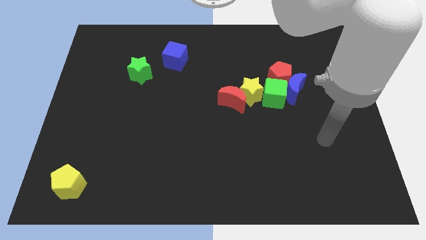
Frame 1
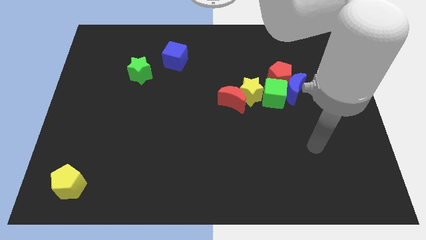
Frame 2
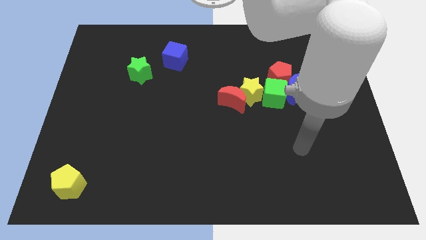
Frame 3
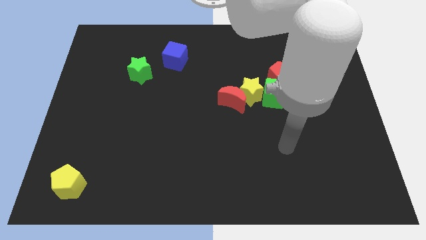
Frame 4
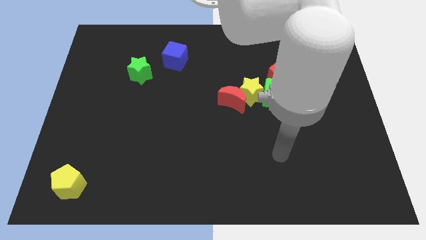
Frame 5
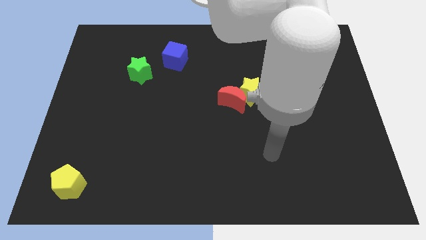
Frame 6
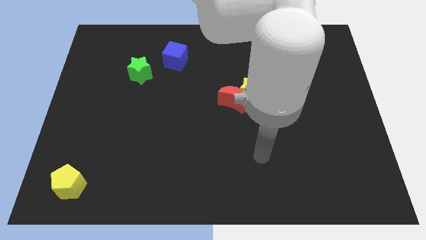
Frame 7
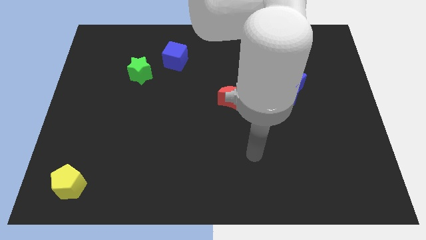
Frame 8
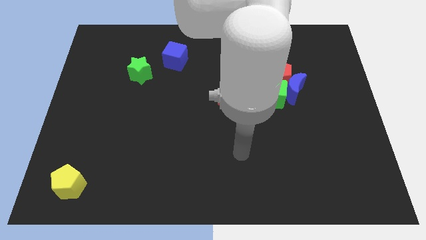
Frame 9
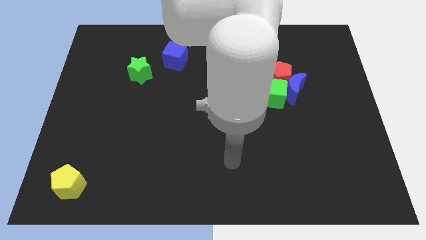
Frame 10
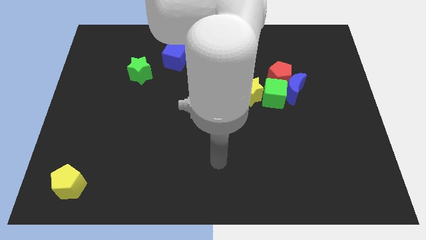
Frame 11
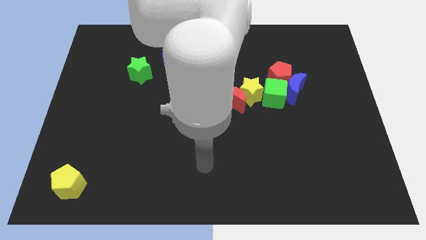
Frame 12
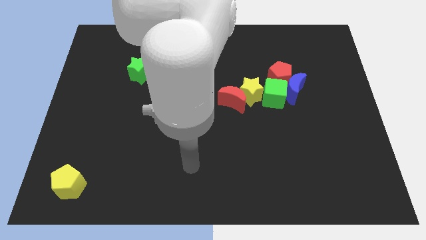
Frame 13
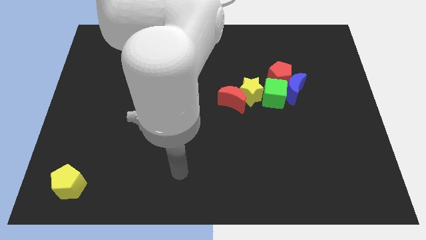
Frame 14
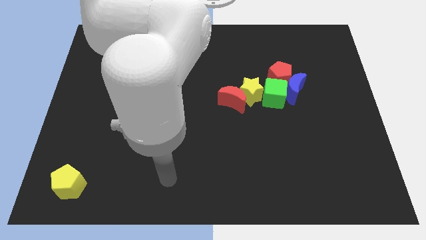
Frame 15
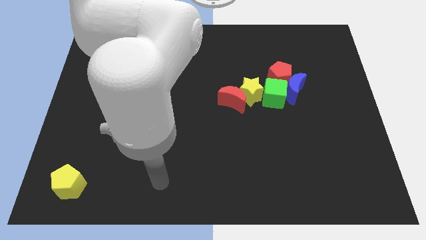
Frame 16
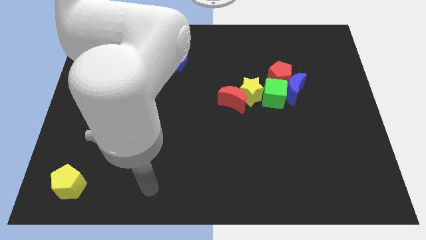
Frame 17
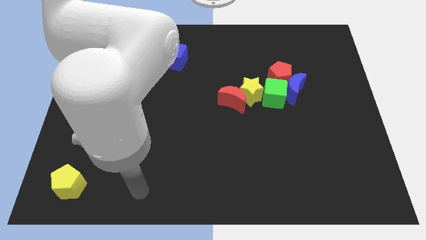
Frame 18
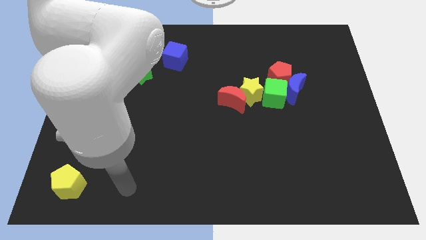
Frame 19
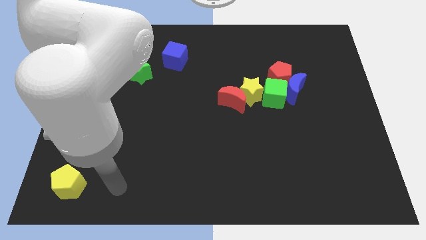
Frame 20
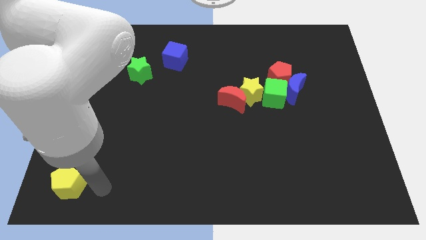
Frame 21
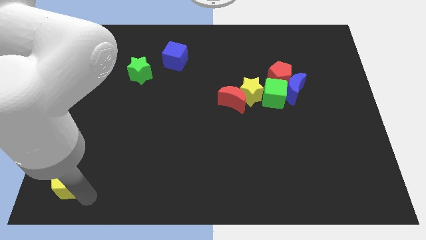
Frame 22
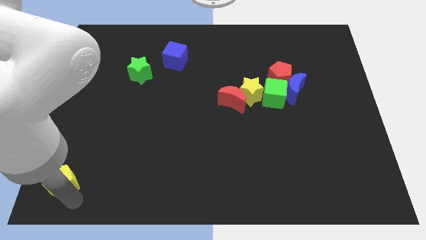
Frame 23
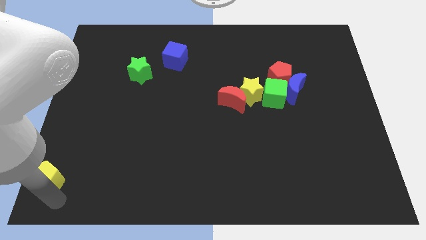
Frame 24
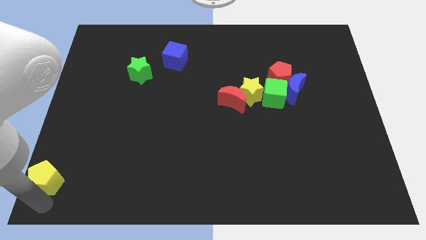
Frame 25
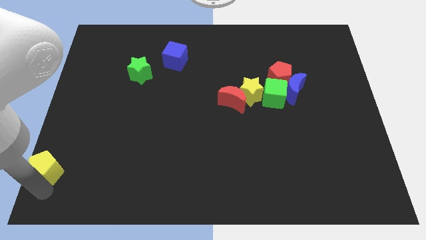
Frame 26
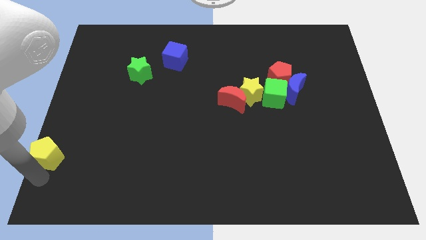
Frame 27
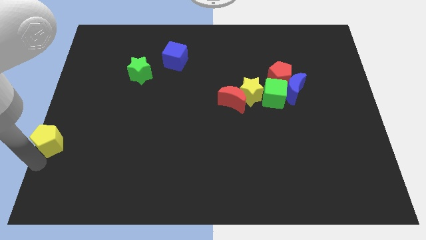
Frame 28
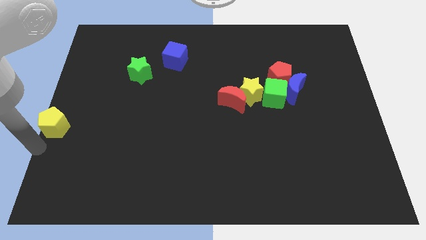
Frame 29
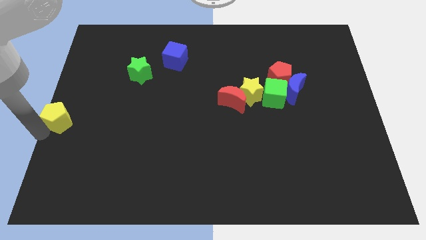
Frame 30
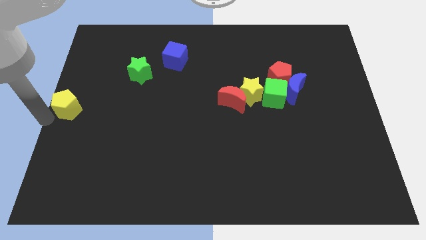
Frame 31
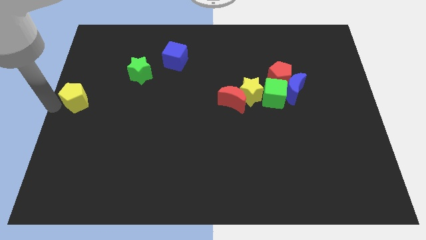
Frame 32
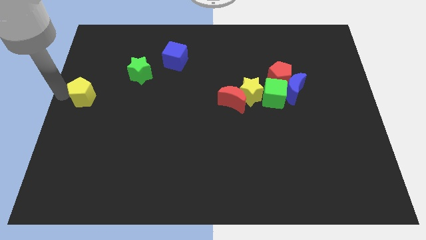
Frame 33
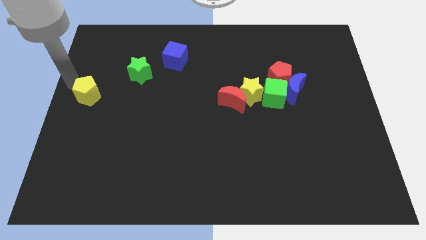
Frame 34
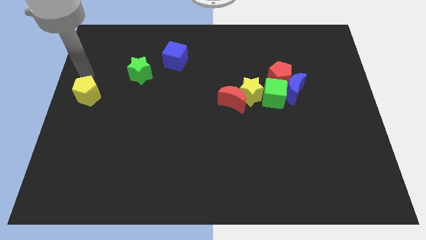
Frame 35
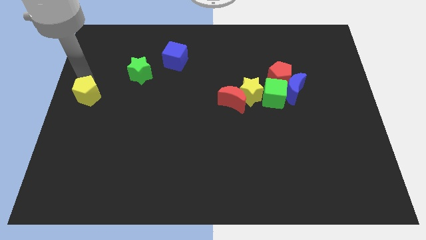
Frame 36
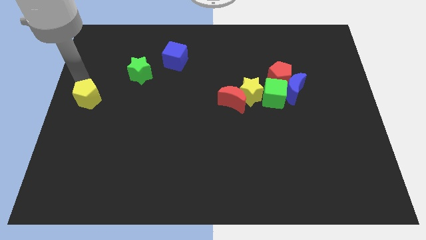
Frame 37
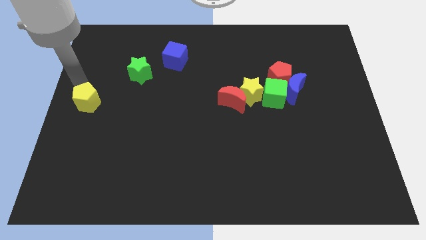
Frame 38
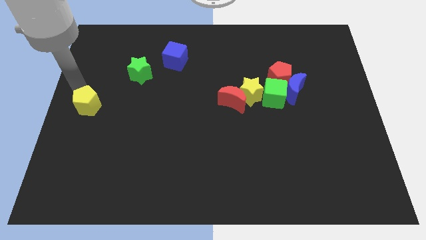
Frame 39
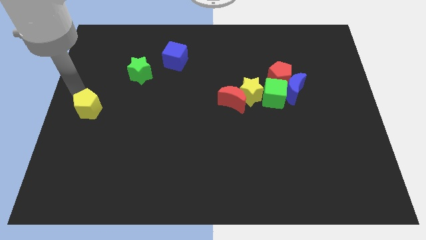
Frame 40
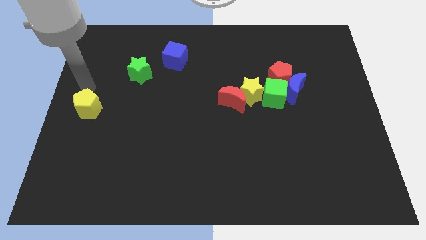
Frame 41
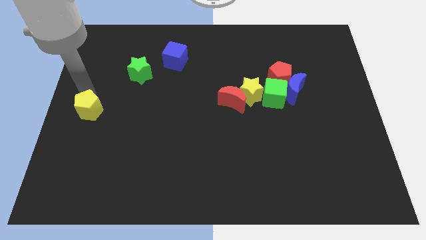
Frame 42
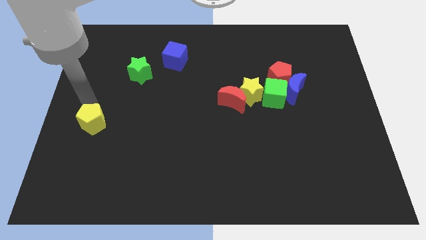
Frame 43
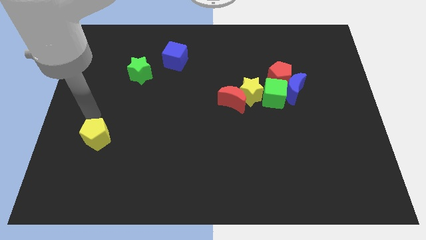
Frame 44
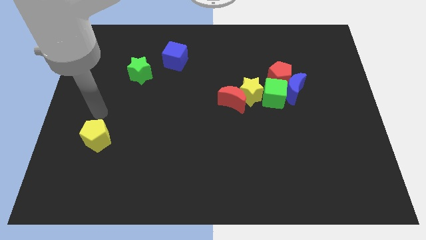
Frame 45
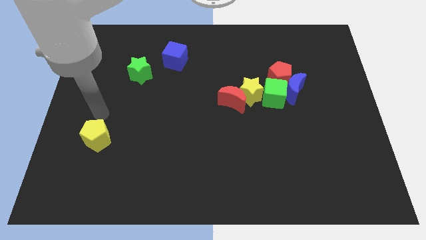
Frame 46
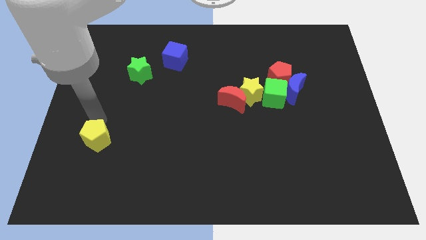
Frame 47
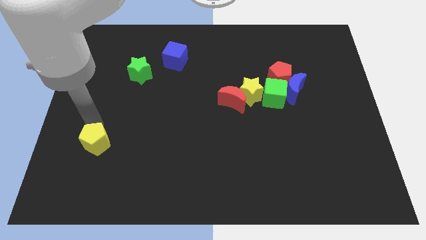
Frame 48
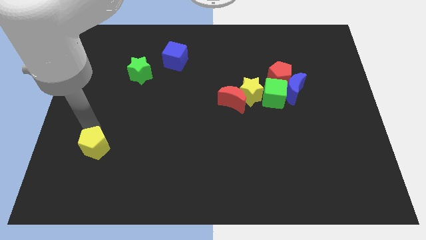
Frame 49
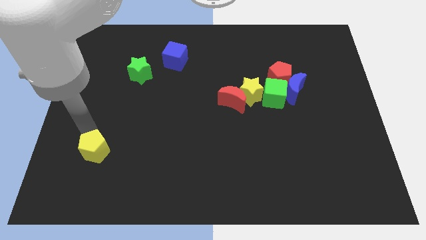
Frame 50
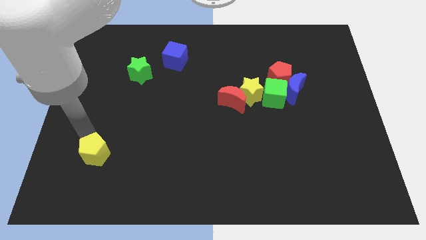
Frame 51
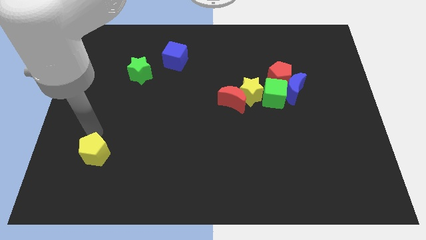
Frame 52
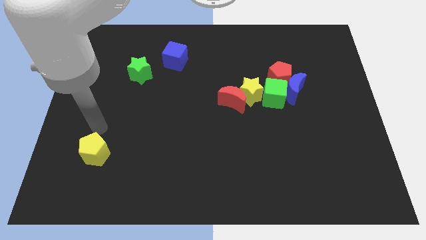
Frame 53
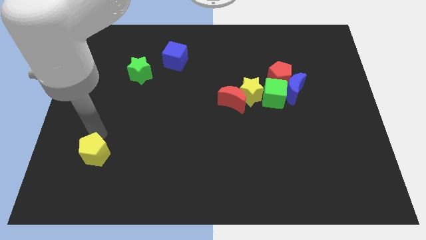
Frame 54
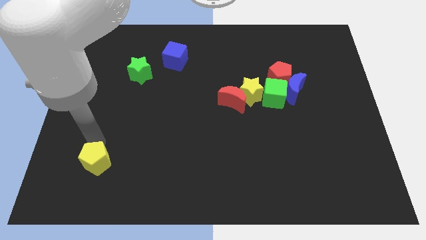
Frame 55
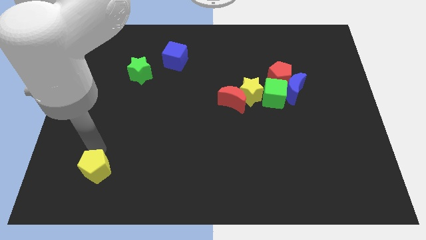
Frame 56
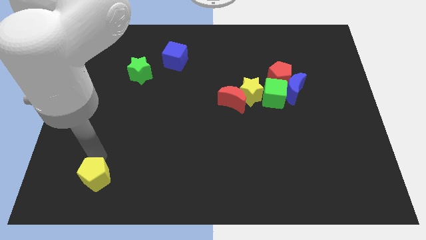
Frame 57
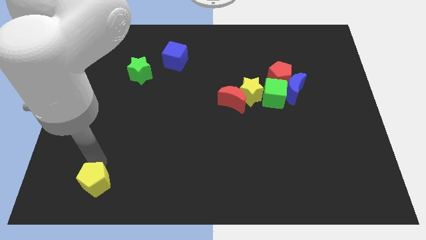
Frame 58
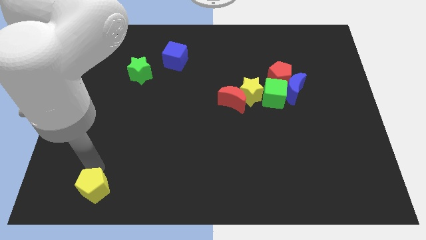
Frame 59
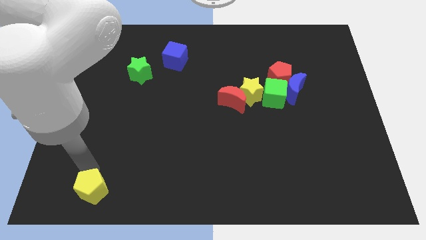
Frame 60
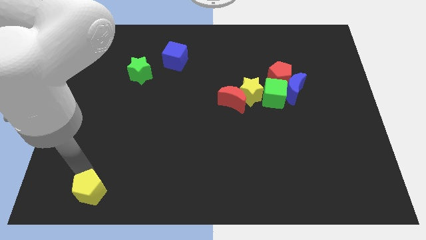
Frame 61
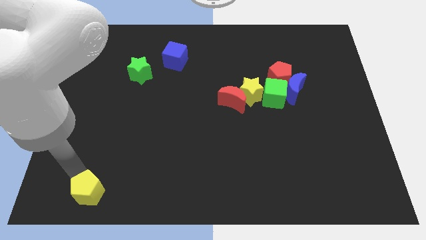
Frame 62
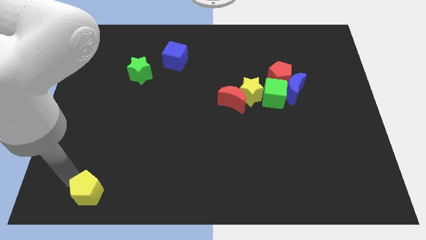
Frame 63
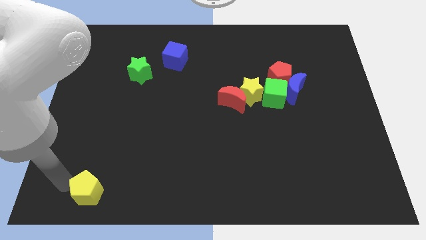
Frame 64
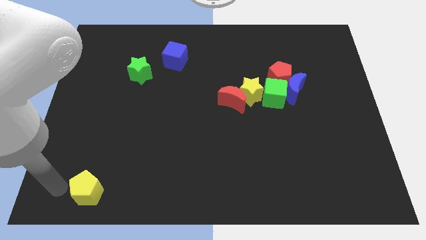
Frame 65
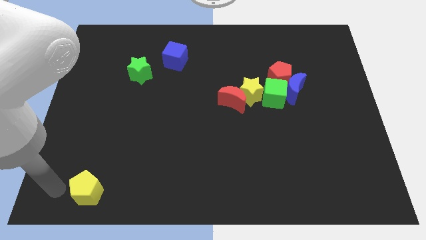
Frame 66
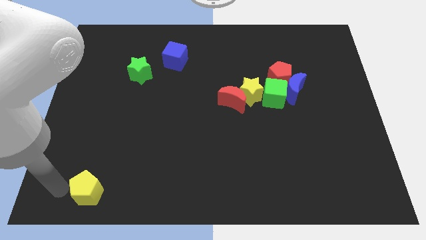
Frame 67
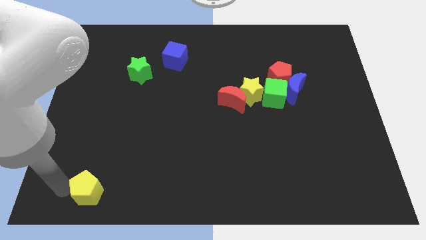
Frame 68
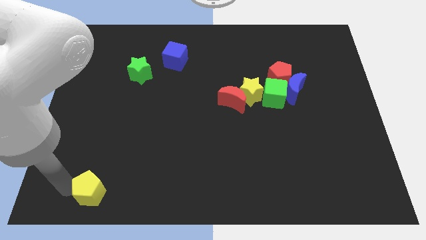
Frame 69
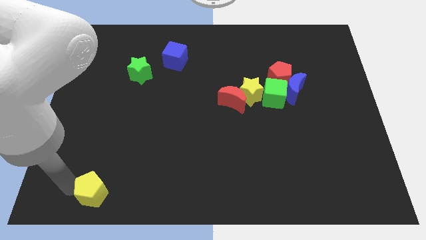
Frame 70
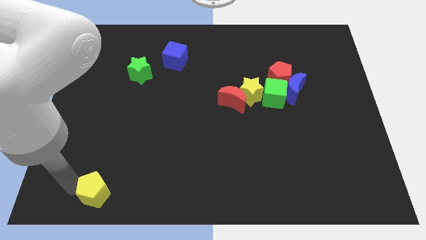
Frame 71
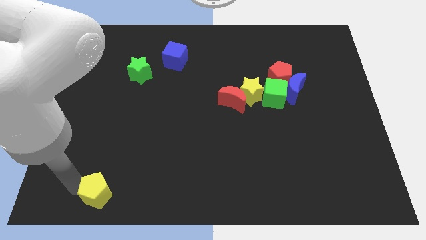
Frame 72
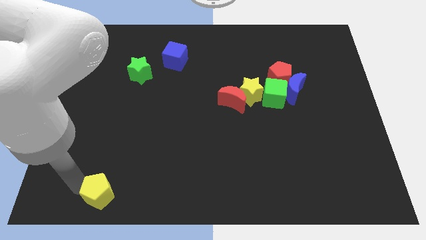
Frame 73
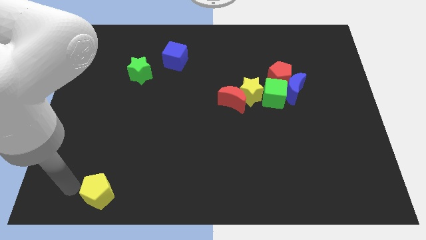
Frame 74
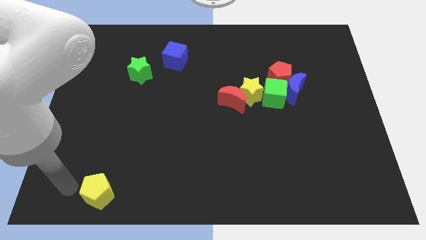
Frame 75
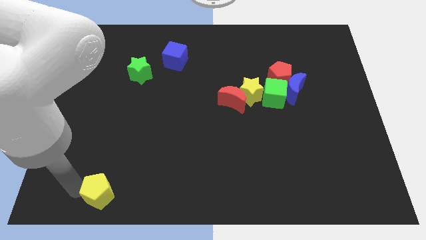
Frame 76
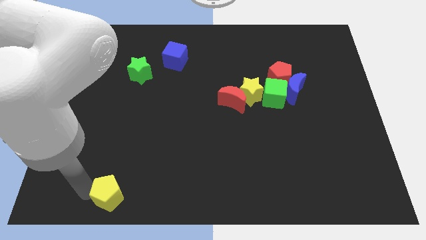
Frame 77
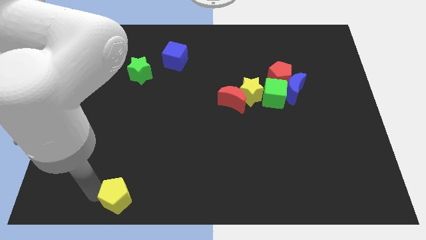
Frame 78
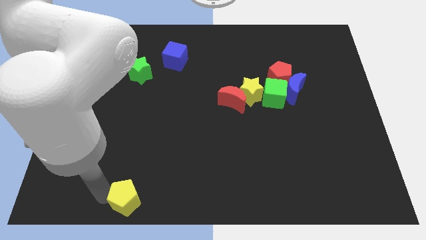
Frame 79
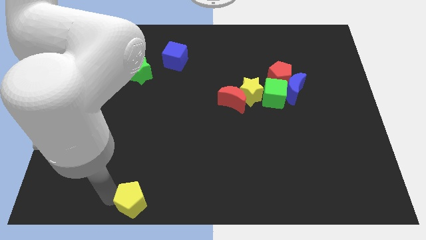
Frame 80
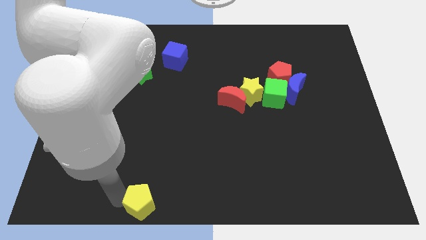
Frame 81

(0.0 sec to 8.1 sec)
put the yellow pentagon to the bottom
